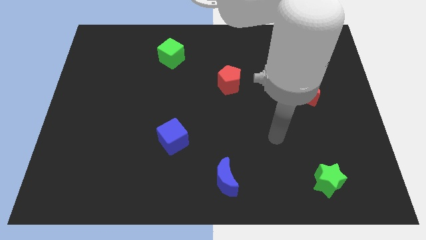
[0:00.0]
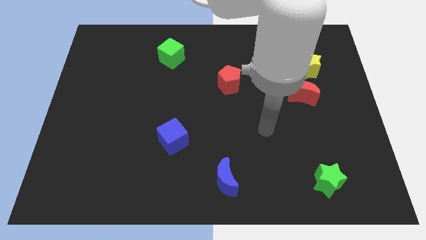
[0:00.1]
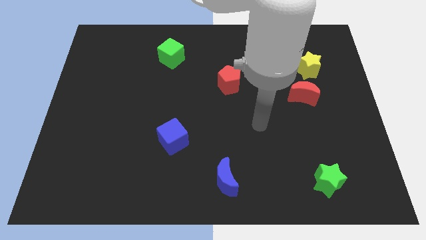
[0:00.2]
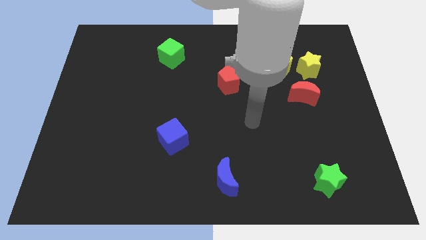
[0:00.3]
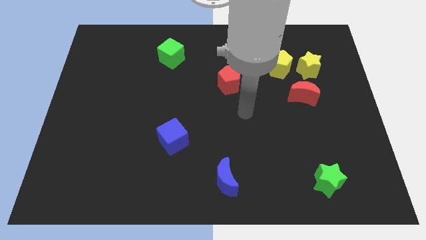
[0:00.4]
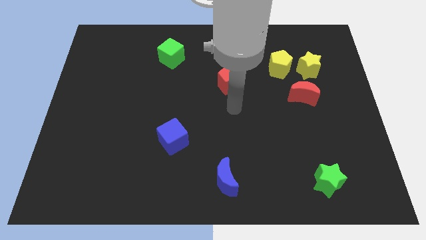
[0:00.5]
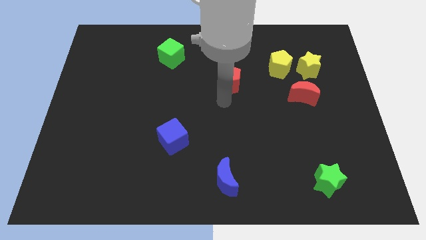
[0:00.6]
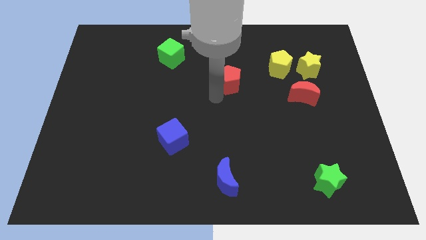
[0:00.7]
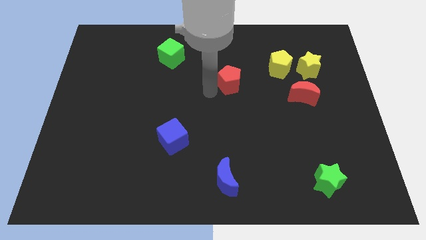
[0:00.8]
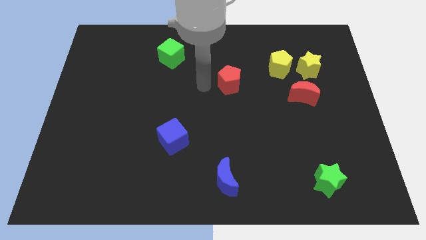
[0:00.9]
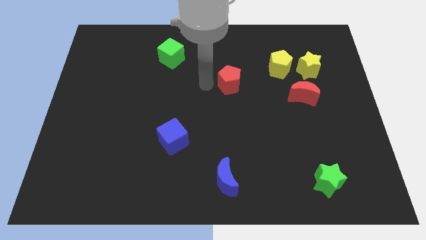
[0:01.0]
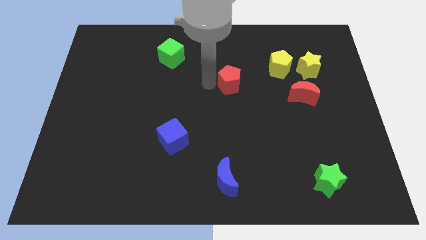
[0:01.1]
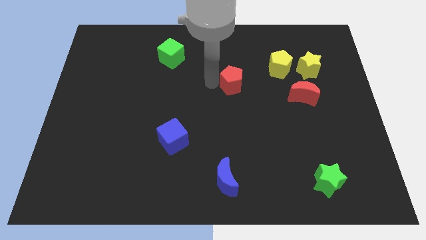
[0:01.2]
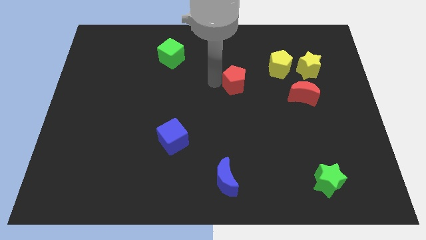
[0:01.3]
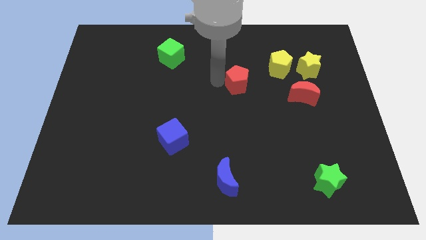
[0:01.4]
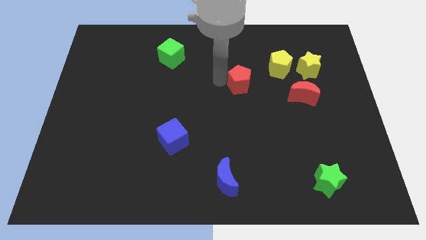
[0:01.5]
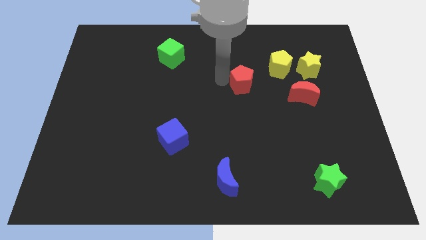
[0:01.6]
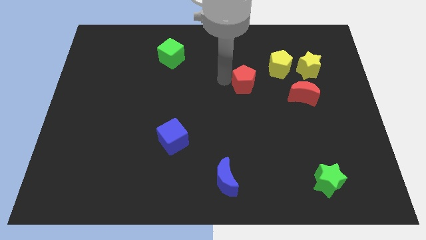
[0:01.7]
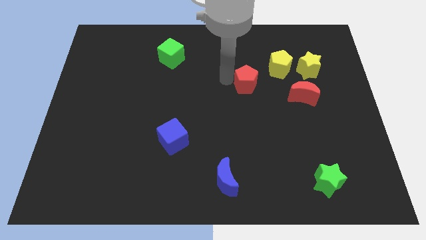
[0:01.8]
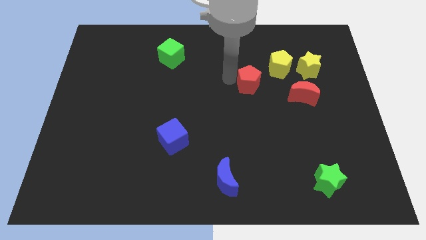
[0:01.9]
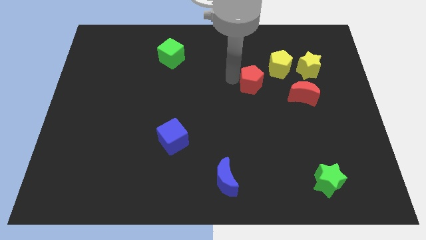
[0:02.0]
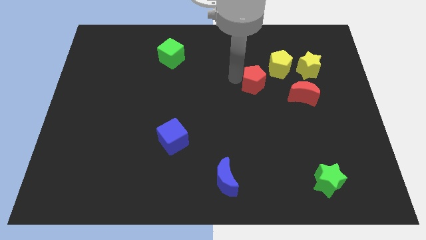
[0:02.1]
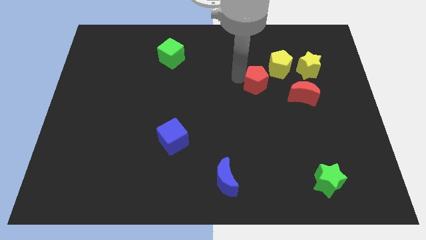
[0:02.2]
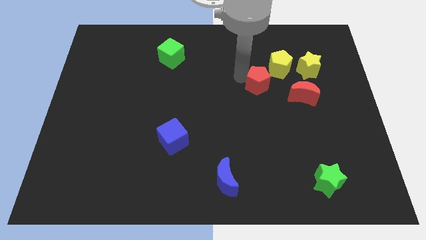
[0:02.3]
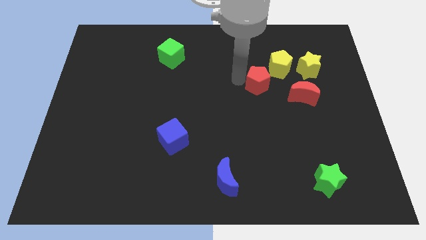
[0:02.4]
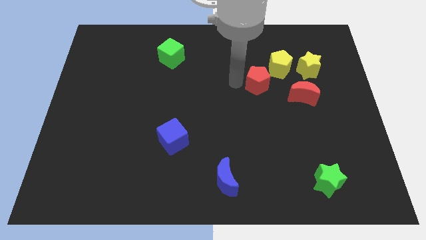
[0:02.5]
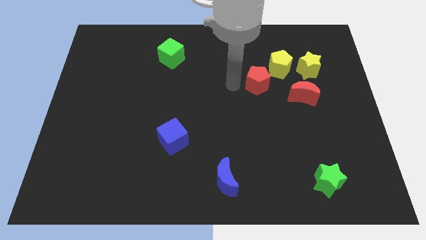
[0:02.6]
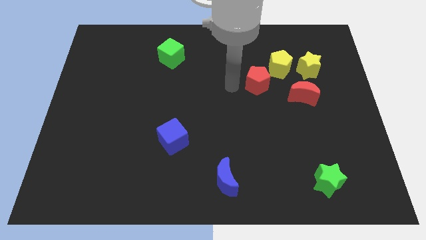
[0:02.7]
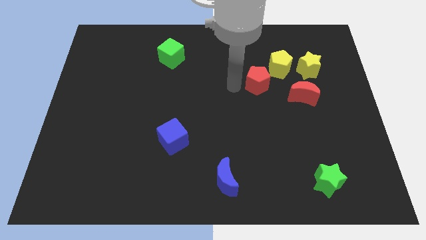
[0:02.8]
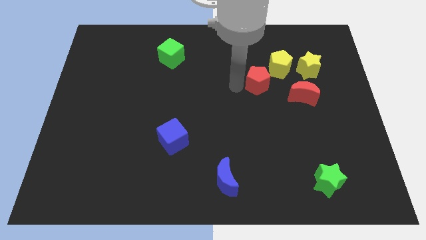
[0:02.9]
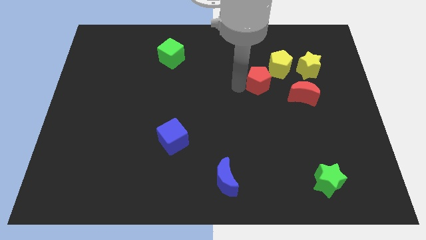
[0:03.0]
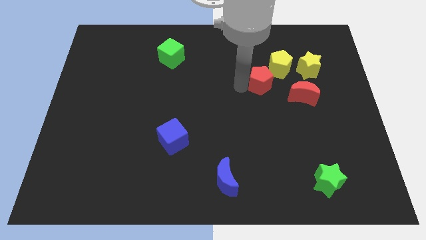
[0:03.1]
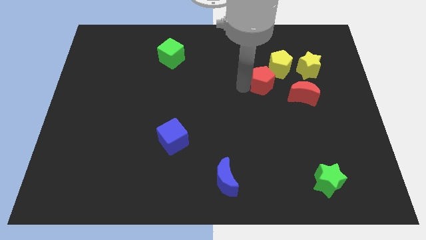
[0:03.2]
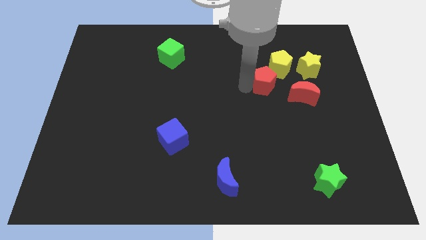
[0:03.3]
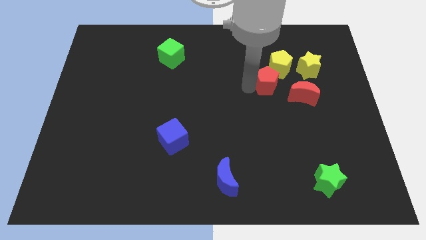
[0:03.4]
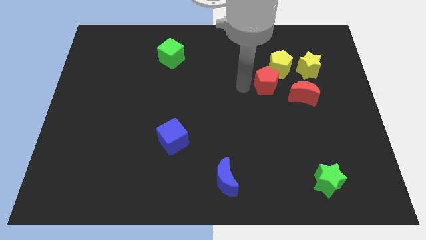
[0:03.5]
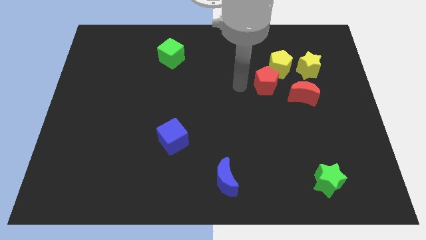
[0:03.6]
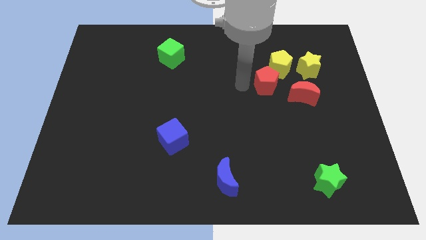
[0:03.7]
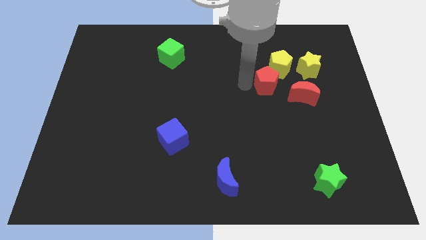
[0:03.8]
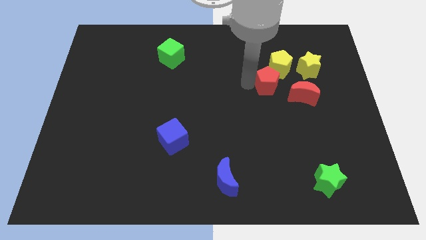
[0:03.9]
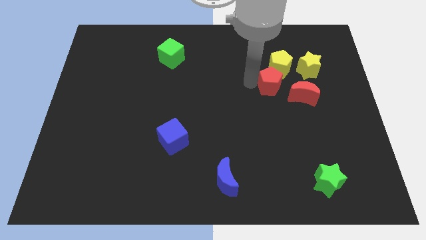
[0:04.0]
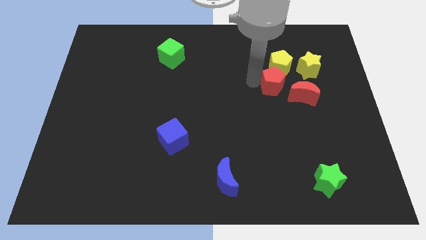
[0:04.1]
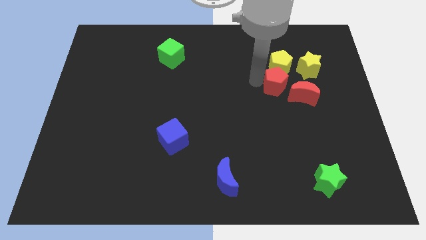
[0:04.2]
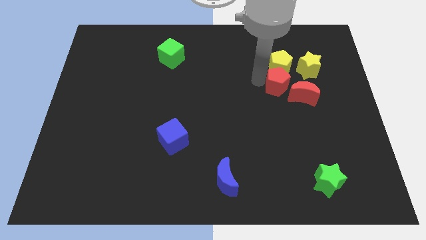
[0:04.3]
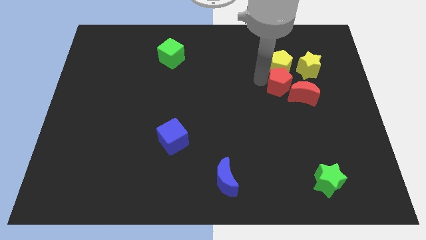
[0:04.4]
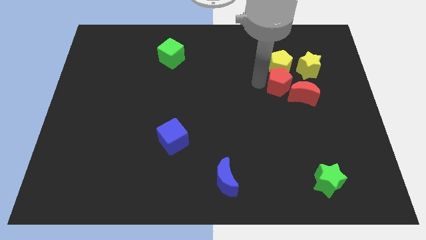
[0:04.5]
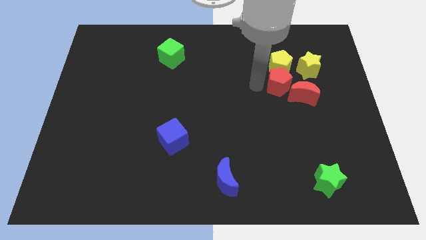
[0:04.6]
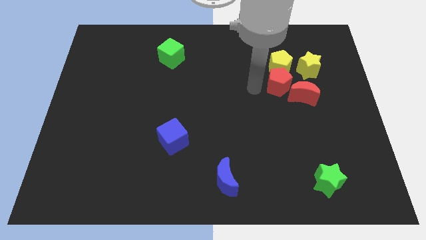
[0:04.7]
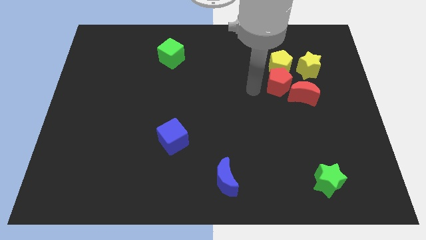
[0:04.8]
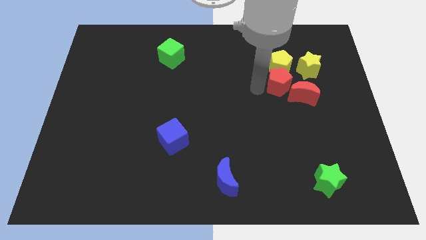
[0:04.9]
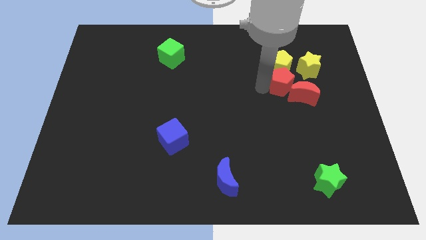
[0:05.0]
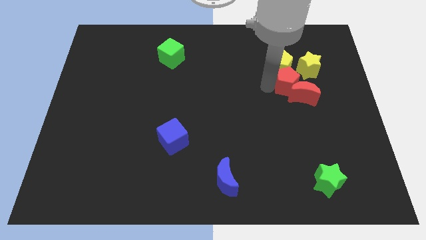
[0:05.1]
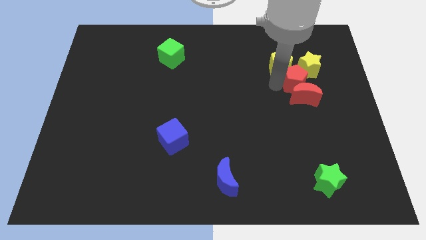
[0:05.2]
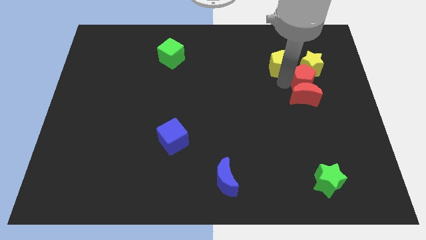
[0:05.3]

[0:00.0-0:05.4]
put the red pentagon just right of the yellow pentagon

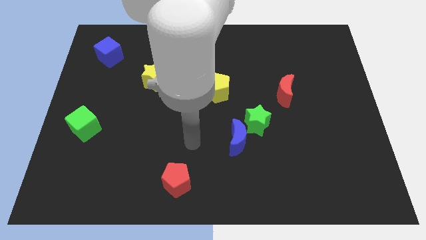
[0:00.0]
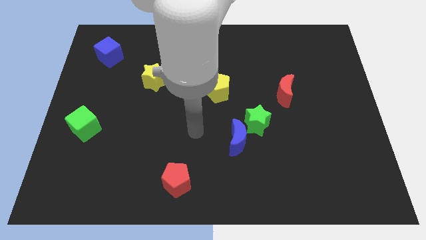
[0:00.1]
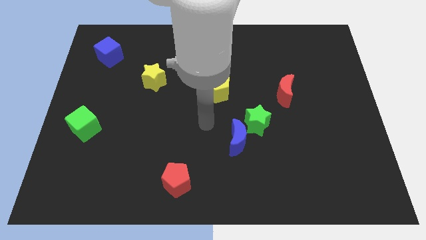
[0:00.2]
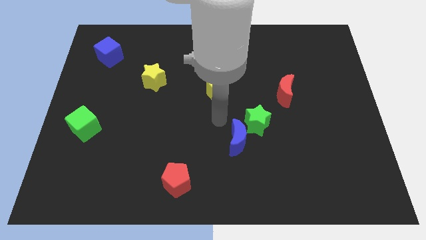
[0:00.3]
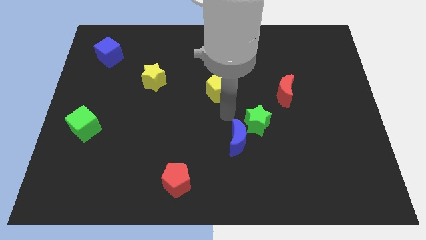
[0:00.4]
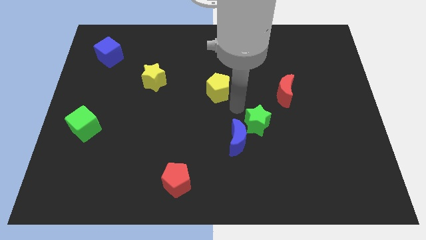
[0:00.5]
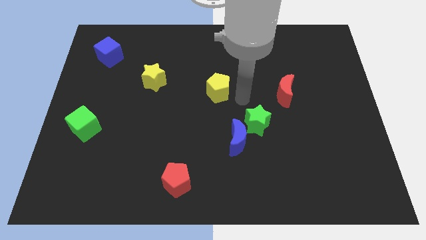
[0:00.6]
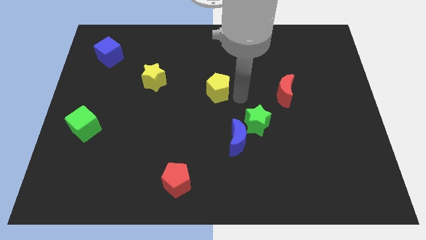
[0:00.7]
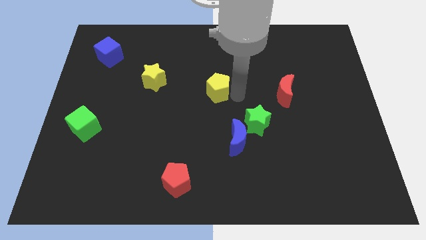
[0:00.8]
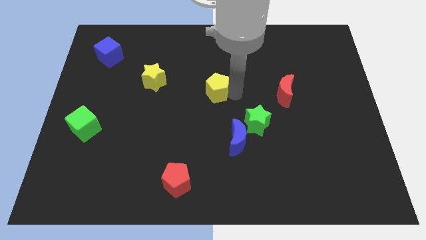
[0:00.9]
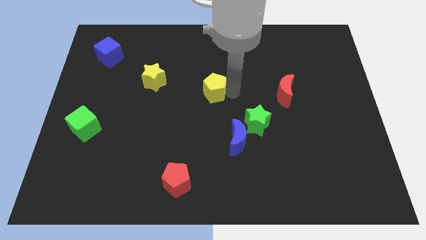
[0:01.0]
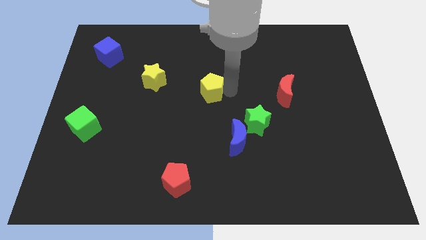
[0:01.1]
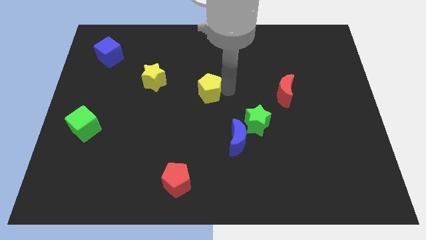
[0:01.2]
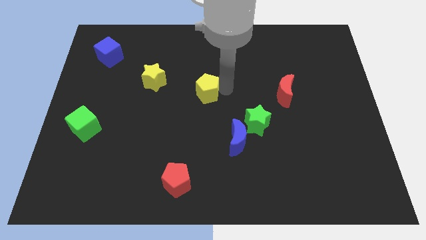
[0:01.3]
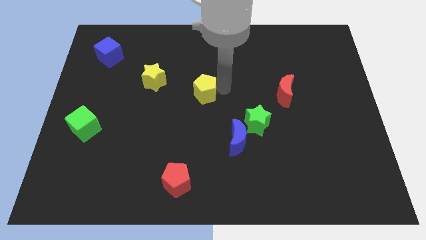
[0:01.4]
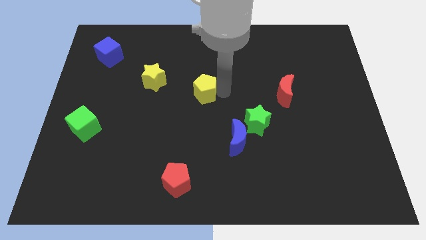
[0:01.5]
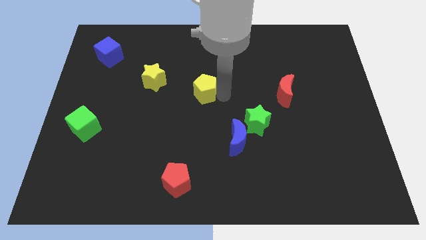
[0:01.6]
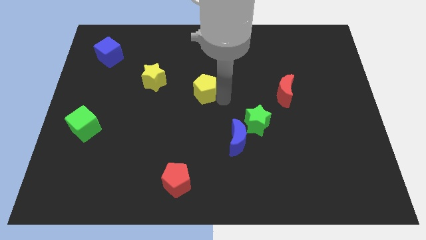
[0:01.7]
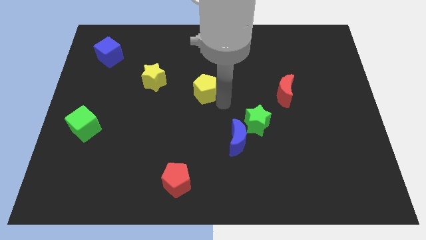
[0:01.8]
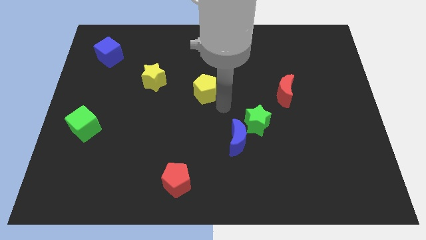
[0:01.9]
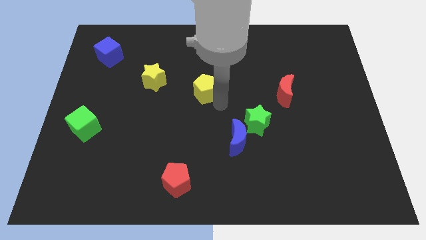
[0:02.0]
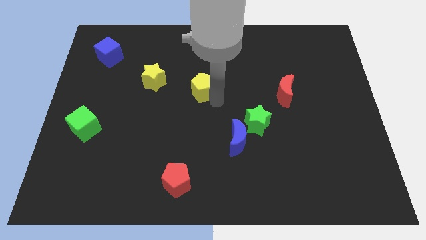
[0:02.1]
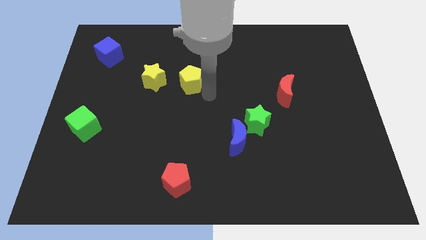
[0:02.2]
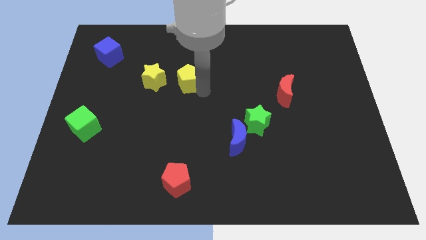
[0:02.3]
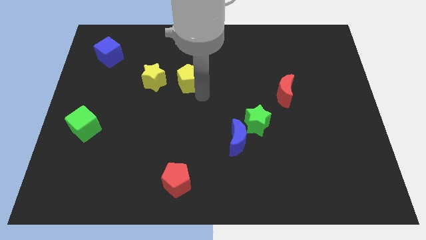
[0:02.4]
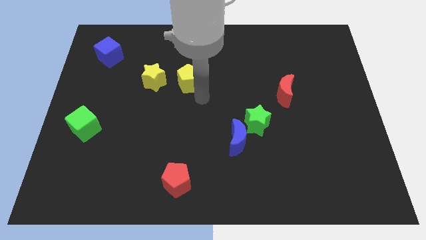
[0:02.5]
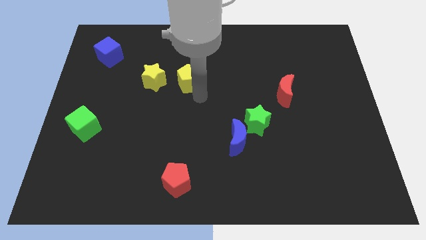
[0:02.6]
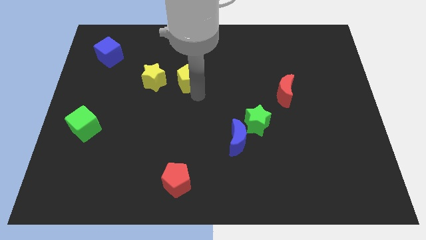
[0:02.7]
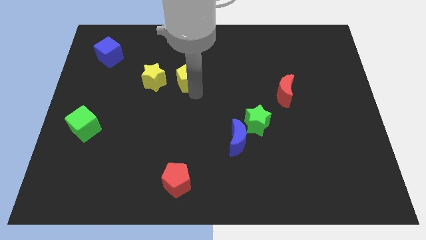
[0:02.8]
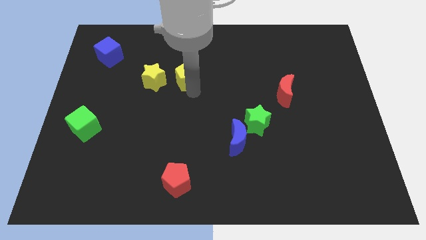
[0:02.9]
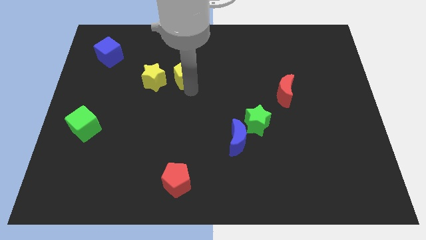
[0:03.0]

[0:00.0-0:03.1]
move the yellow pentagon to the top right side of the yellow star
